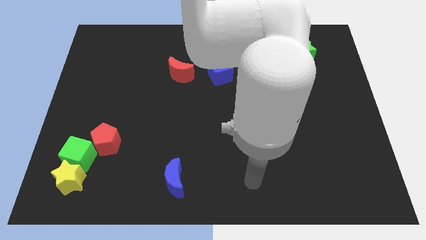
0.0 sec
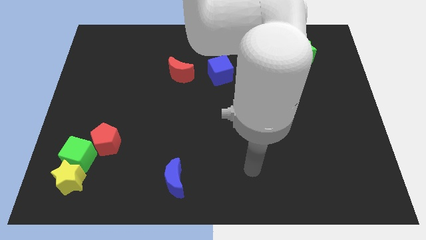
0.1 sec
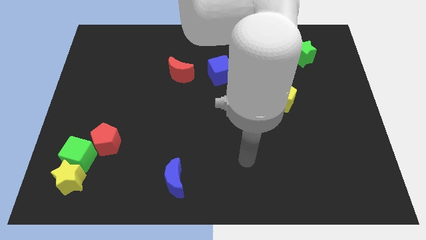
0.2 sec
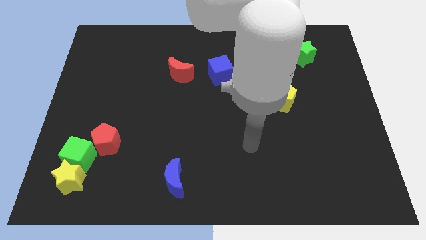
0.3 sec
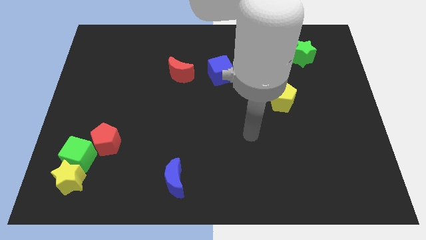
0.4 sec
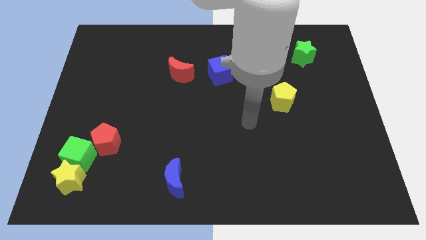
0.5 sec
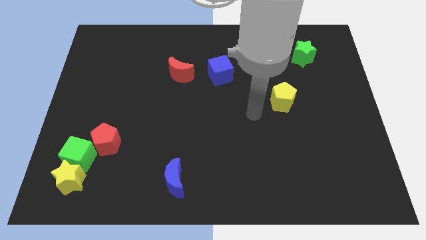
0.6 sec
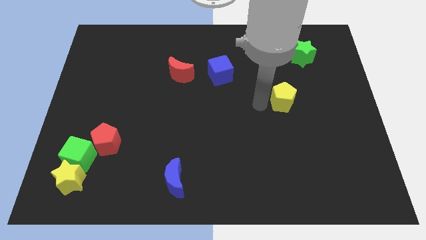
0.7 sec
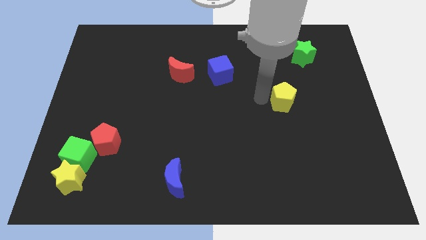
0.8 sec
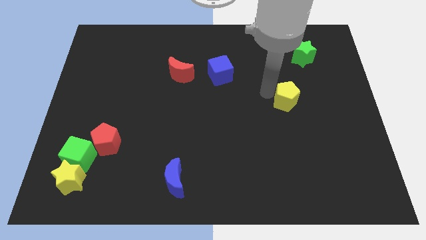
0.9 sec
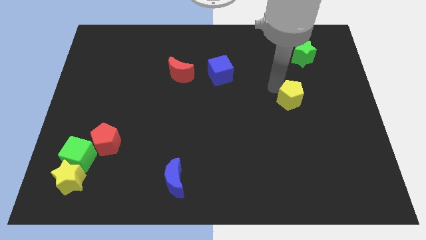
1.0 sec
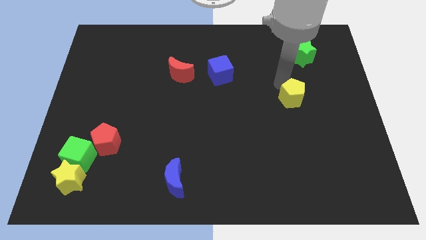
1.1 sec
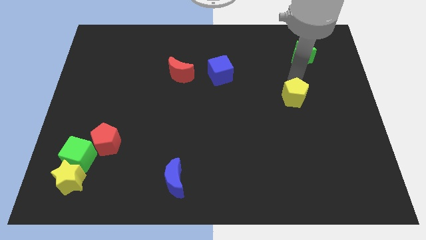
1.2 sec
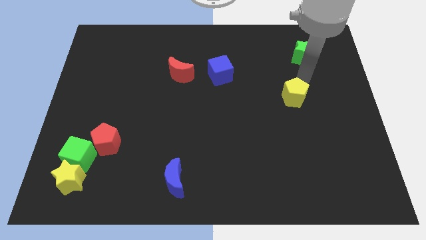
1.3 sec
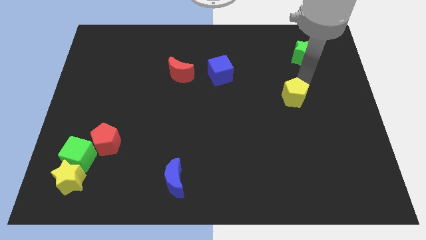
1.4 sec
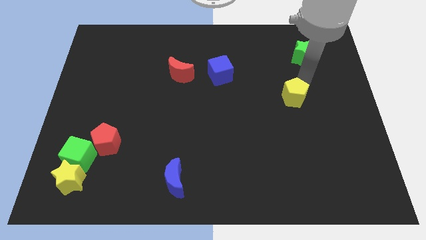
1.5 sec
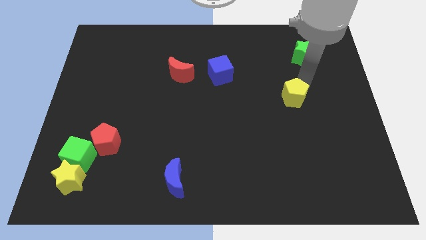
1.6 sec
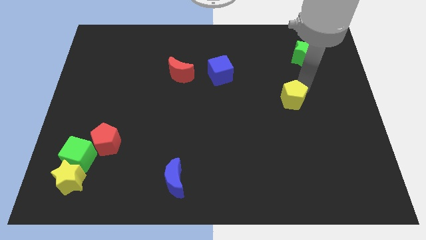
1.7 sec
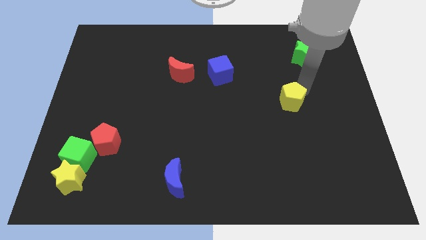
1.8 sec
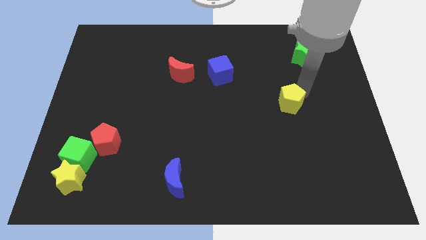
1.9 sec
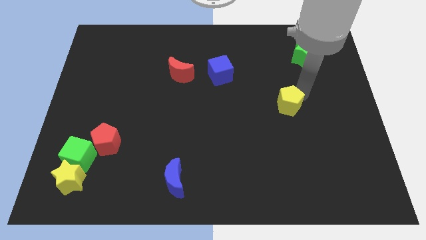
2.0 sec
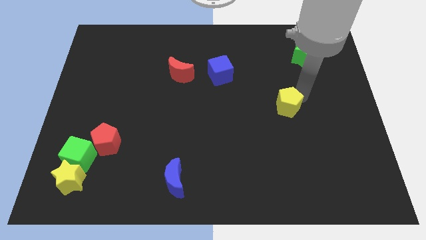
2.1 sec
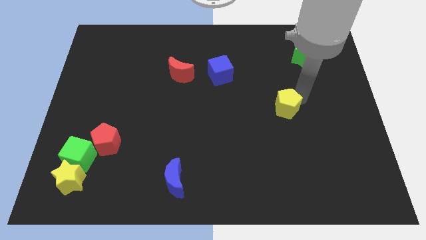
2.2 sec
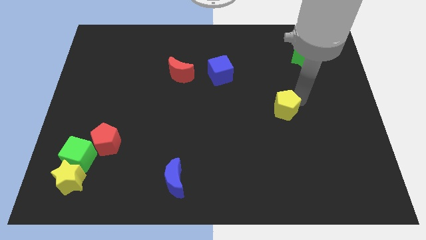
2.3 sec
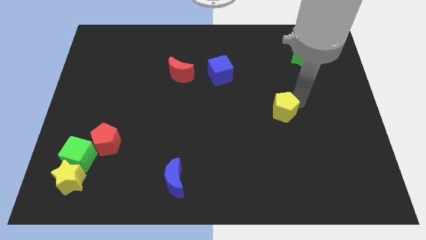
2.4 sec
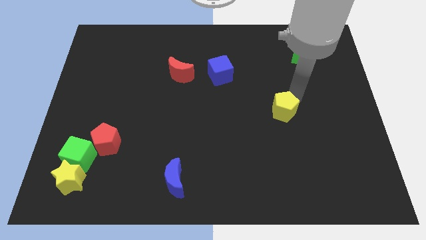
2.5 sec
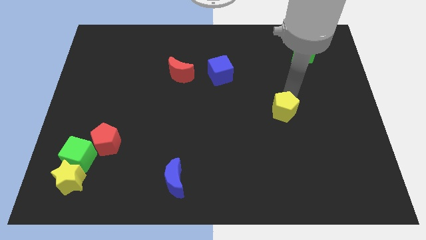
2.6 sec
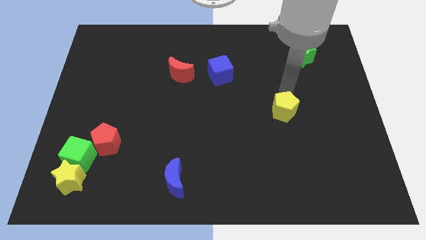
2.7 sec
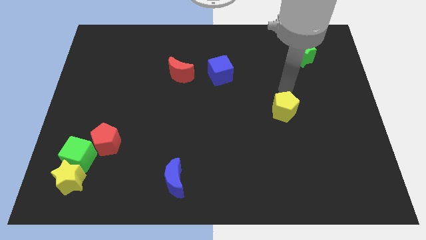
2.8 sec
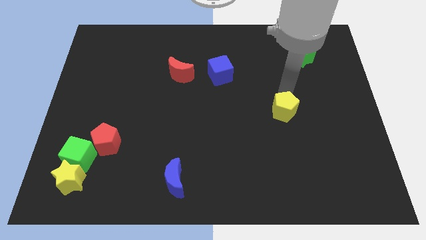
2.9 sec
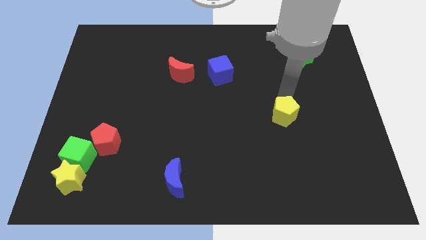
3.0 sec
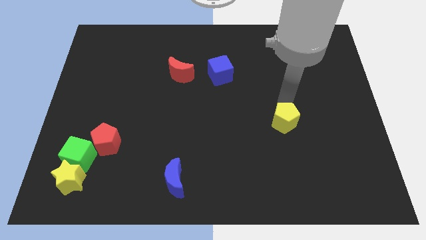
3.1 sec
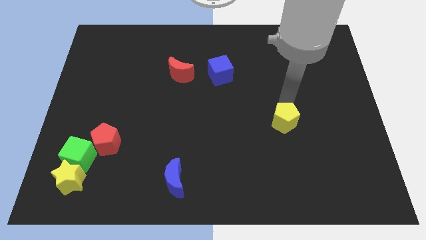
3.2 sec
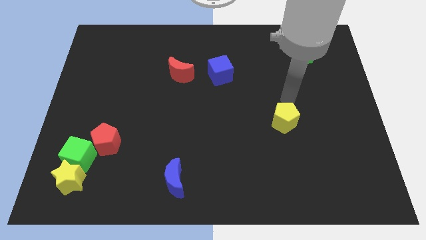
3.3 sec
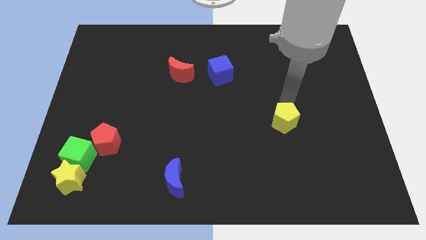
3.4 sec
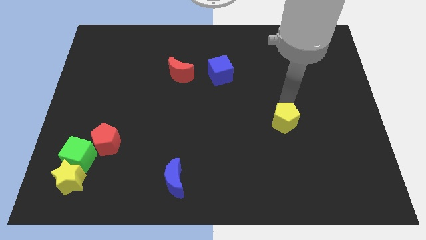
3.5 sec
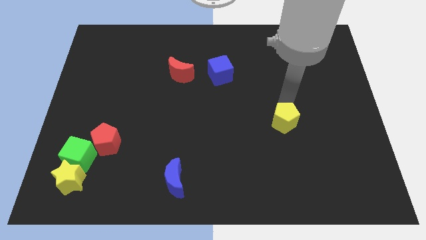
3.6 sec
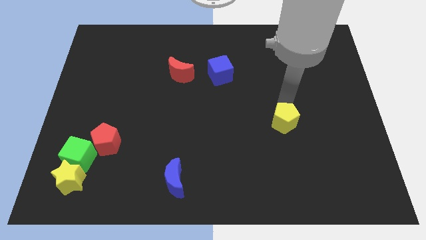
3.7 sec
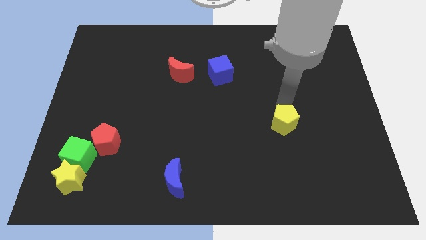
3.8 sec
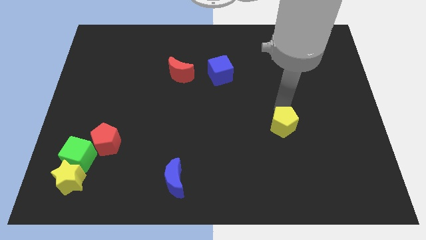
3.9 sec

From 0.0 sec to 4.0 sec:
slightly slide the yellow pentagon downwards

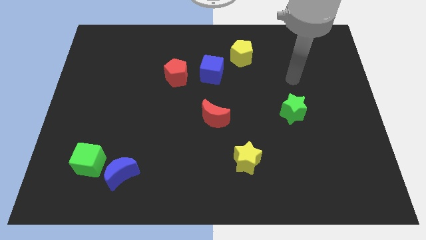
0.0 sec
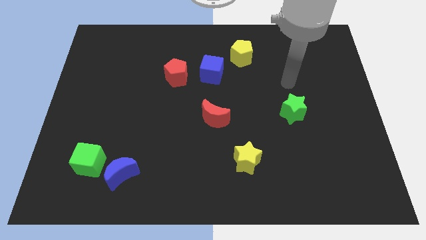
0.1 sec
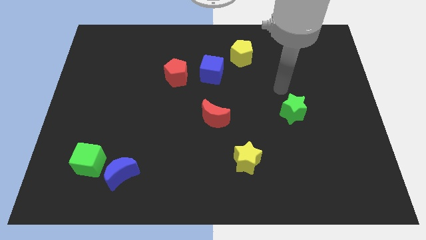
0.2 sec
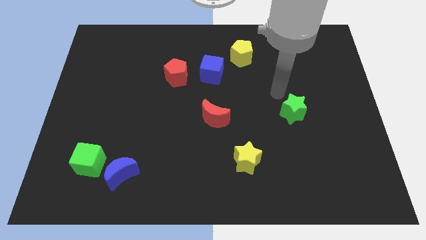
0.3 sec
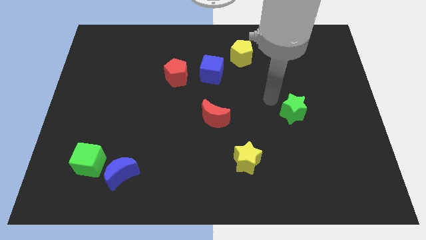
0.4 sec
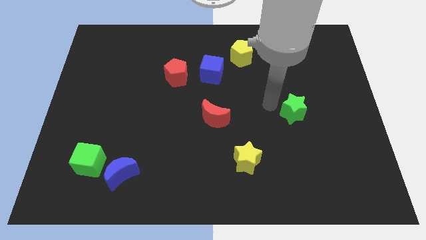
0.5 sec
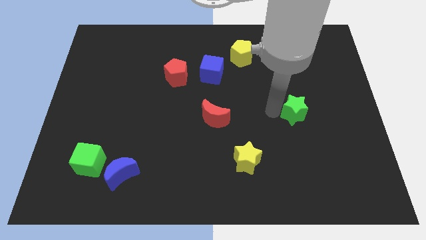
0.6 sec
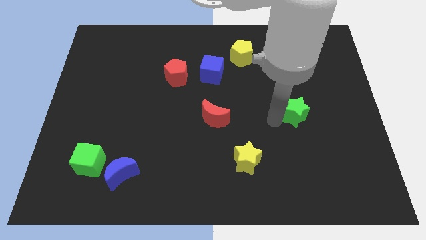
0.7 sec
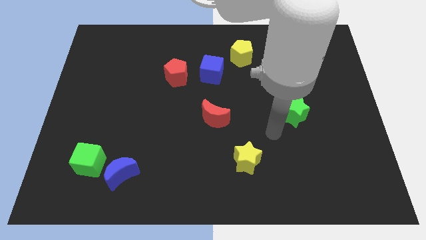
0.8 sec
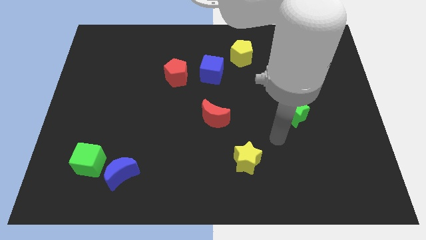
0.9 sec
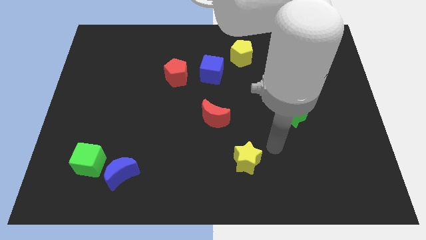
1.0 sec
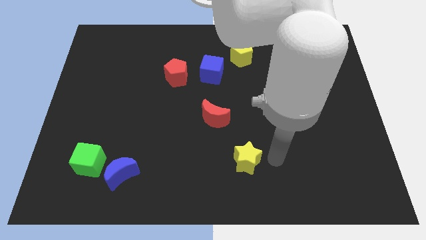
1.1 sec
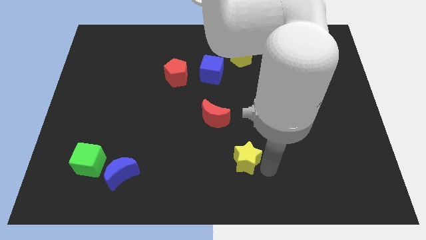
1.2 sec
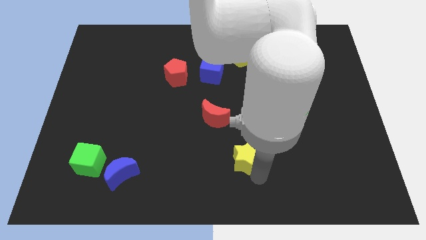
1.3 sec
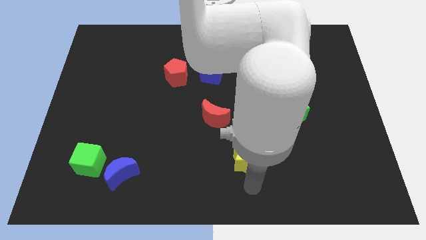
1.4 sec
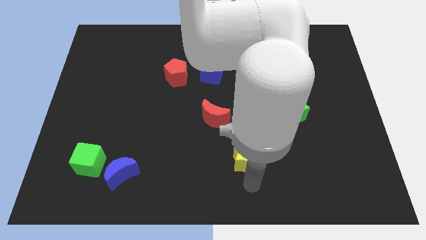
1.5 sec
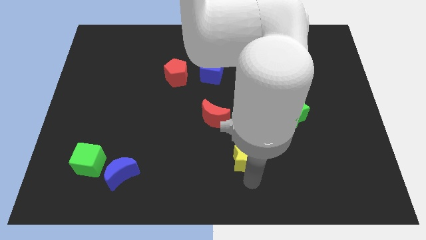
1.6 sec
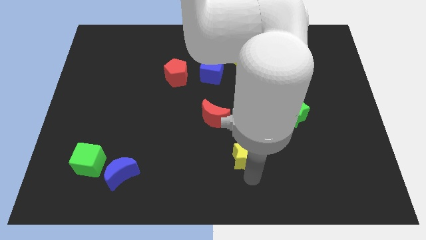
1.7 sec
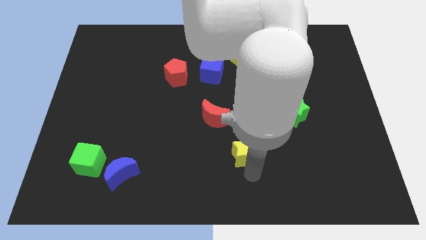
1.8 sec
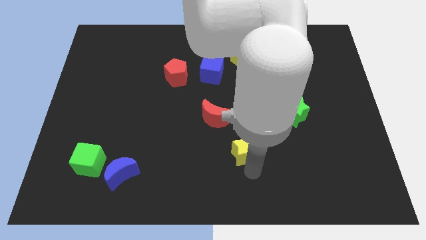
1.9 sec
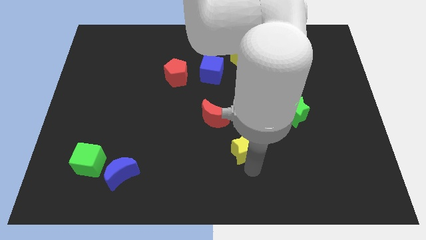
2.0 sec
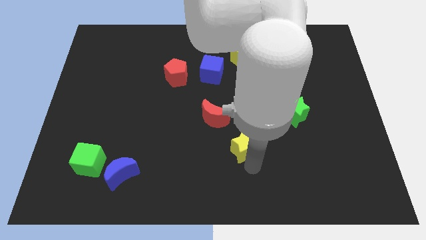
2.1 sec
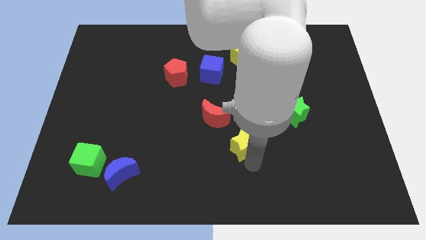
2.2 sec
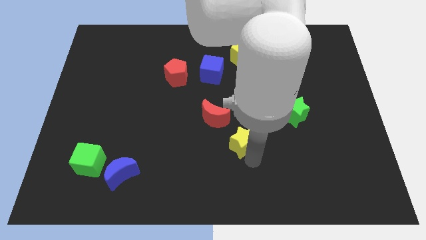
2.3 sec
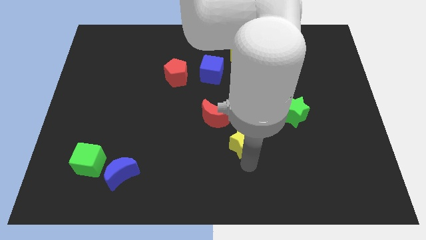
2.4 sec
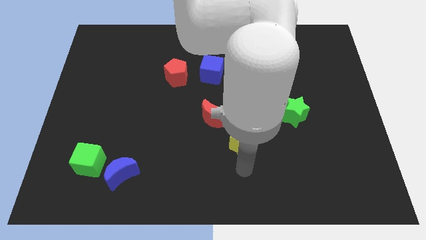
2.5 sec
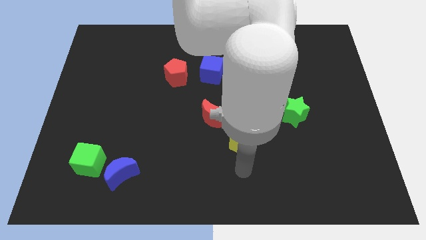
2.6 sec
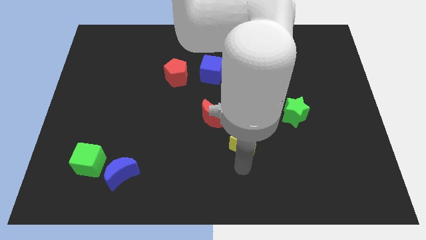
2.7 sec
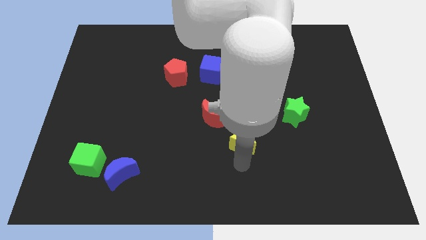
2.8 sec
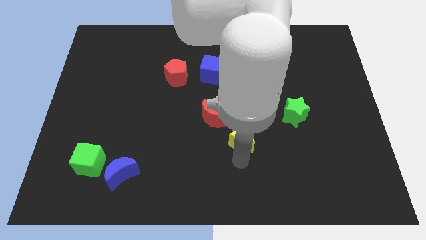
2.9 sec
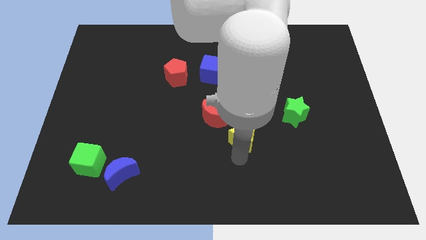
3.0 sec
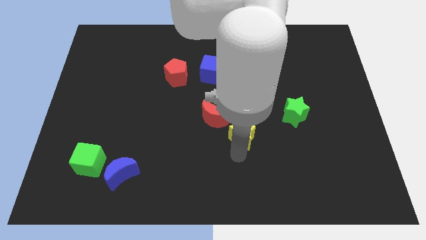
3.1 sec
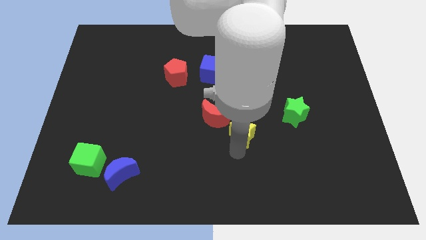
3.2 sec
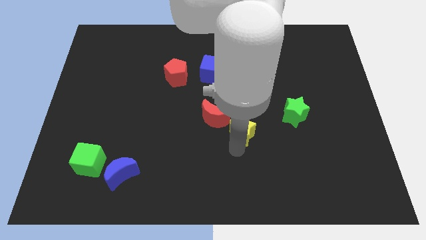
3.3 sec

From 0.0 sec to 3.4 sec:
move the yellow star upwards a little bit

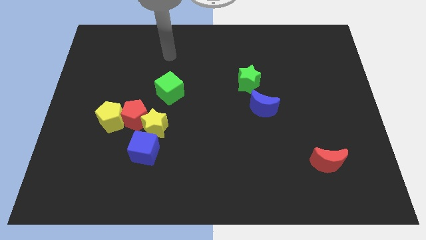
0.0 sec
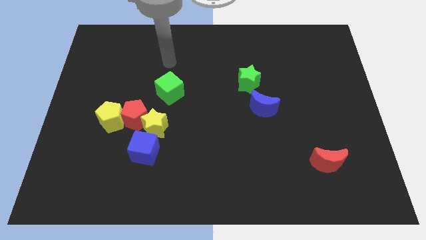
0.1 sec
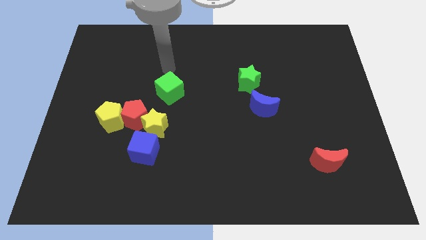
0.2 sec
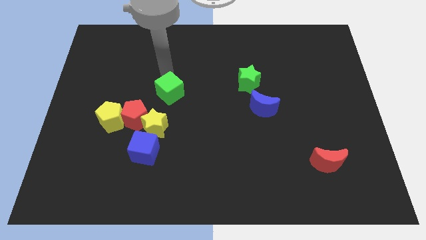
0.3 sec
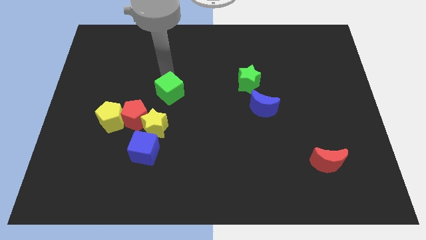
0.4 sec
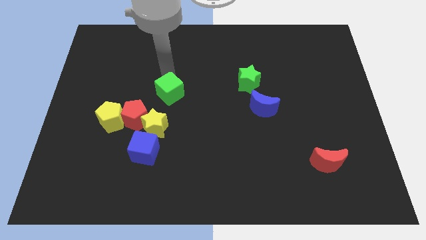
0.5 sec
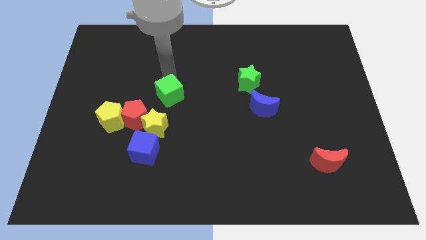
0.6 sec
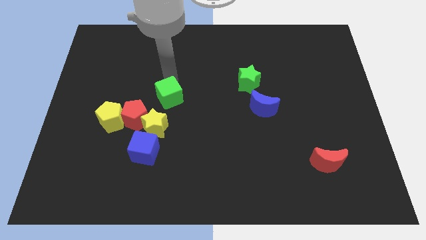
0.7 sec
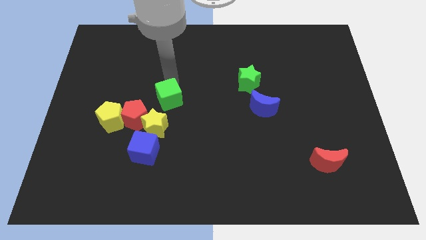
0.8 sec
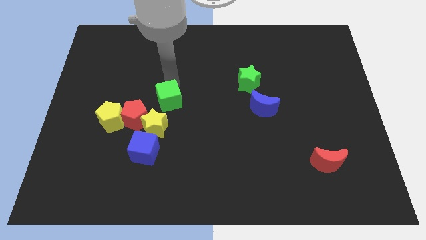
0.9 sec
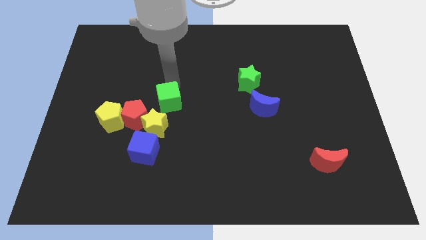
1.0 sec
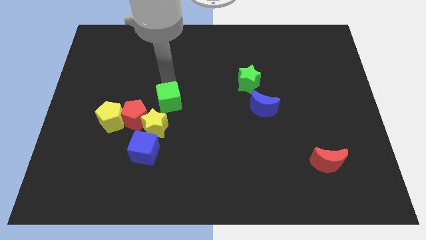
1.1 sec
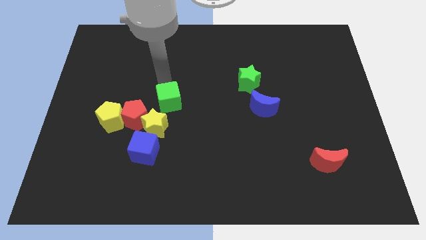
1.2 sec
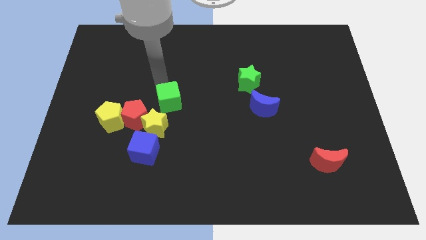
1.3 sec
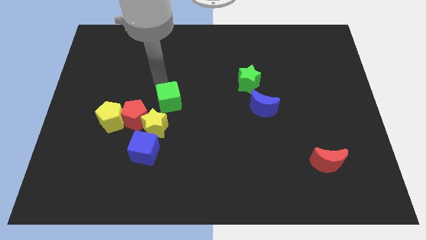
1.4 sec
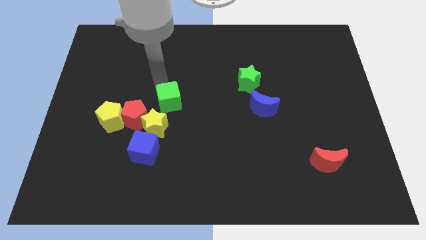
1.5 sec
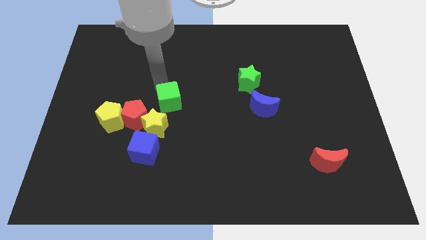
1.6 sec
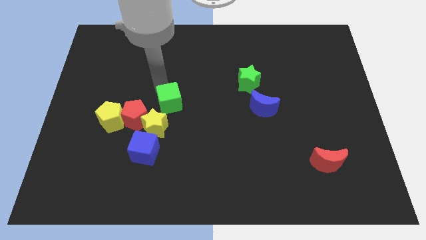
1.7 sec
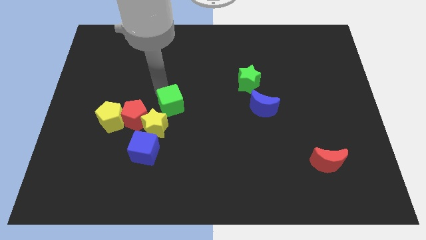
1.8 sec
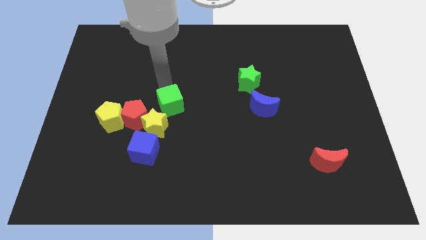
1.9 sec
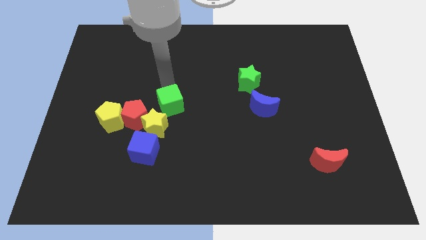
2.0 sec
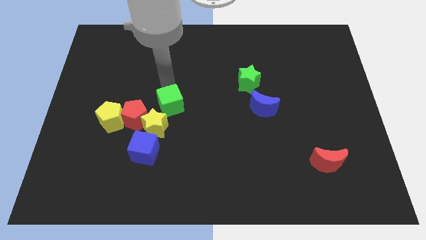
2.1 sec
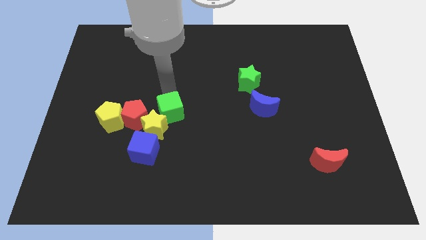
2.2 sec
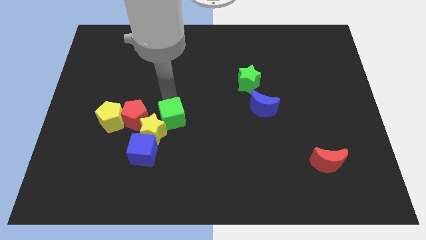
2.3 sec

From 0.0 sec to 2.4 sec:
slightly push the green cube down
